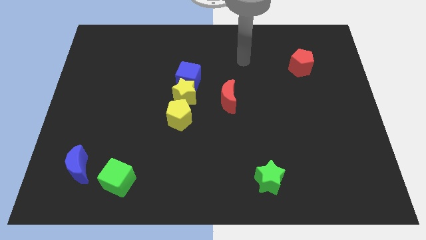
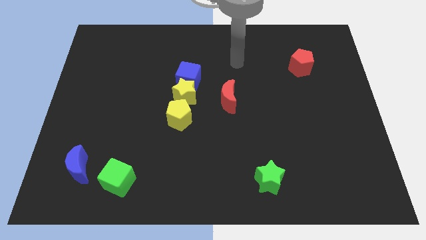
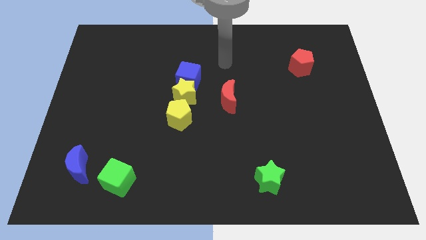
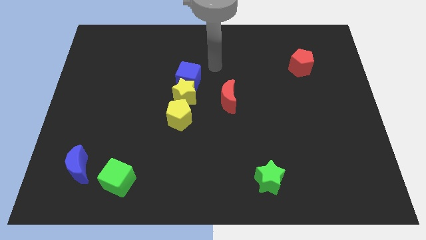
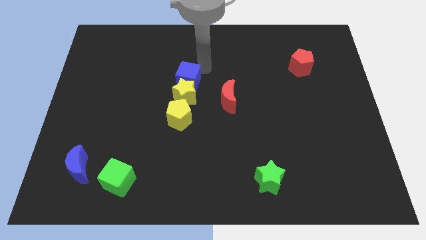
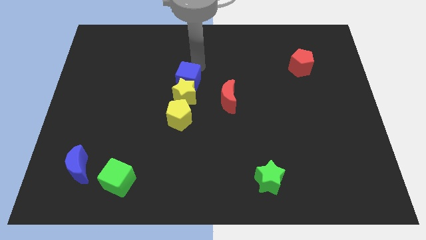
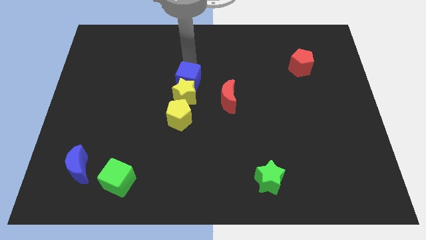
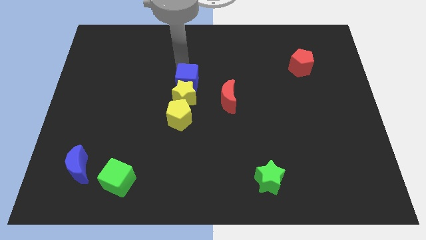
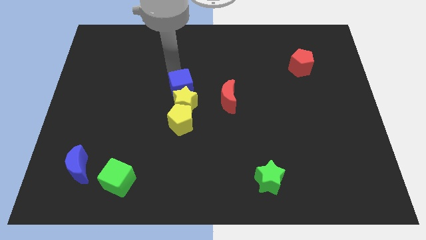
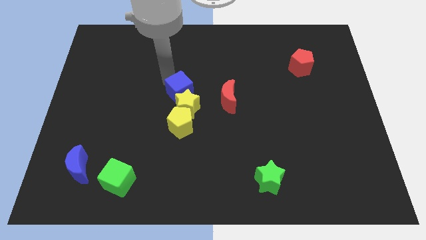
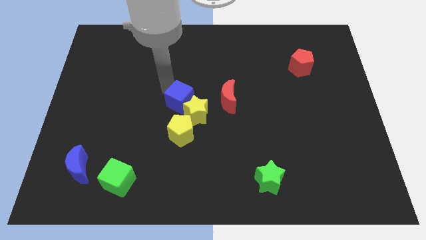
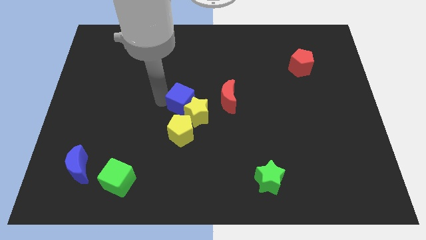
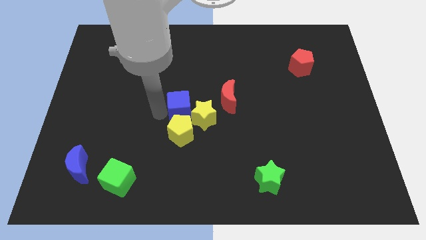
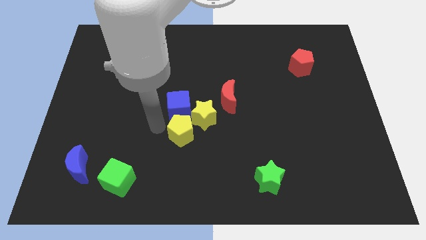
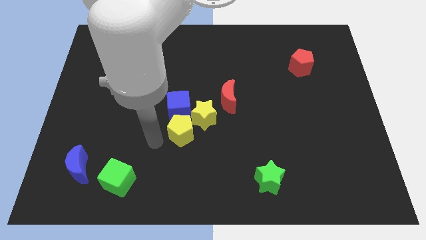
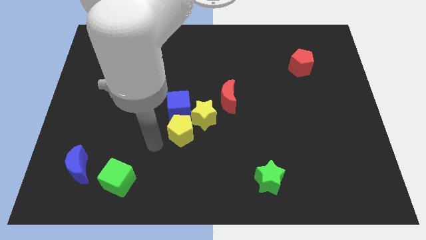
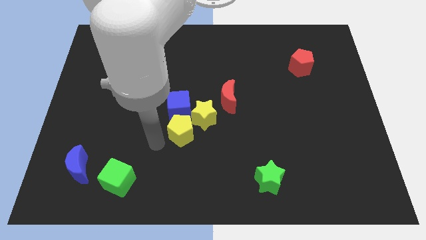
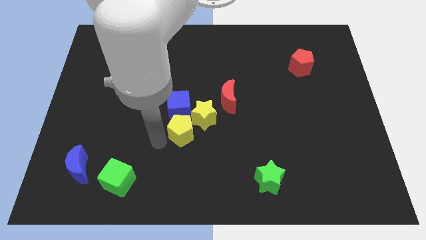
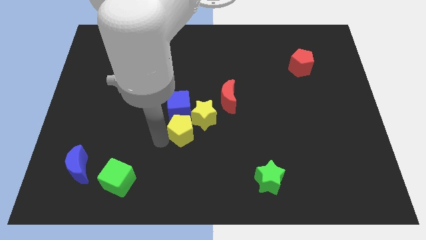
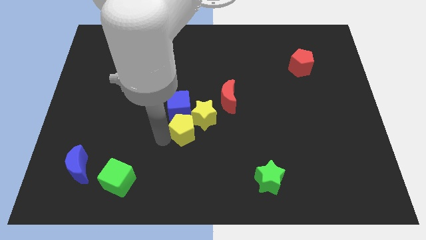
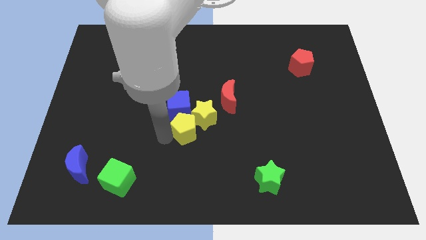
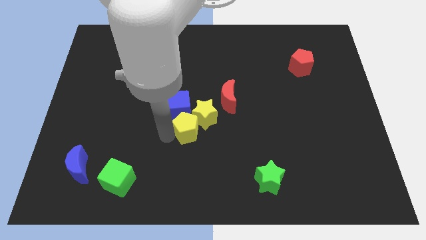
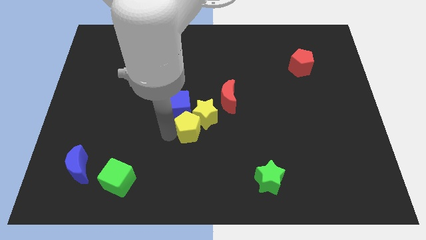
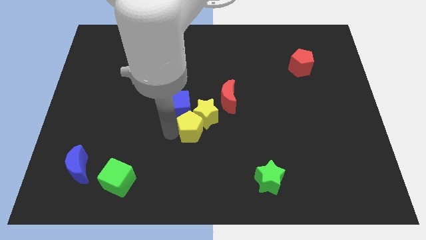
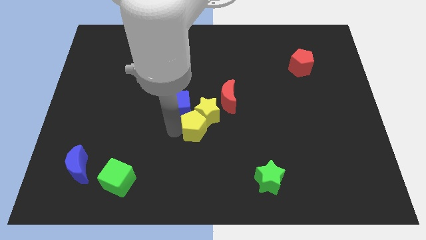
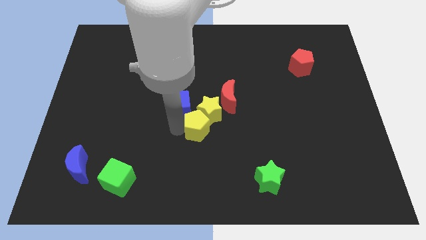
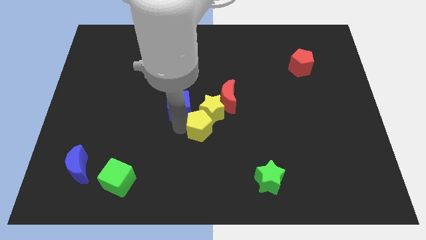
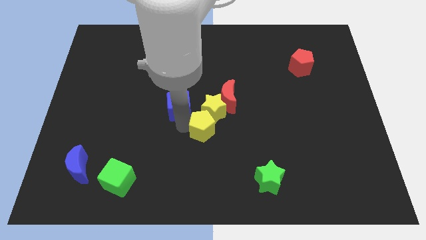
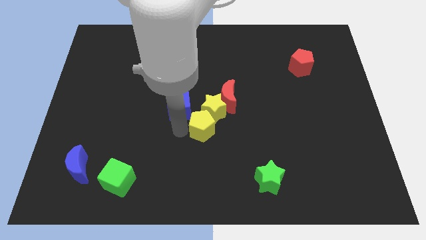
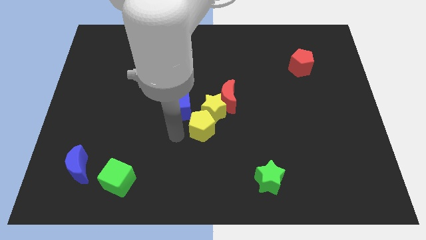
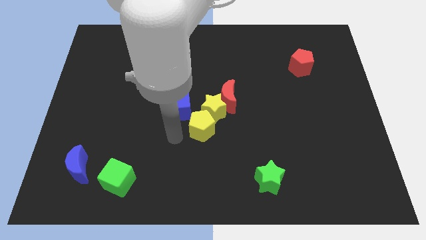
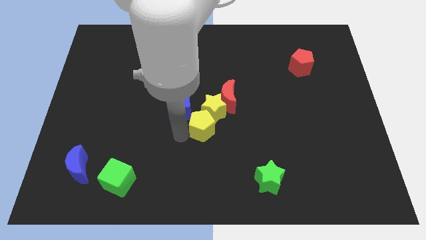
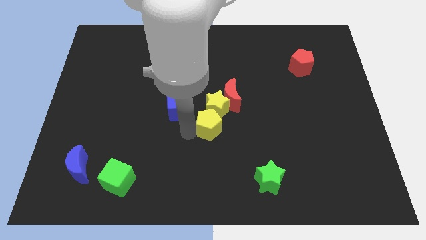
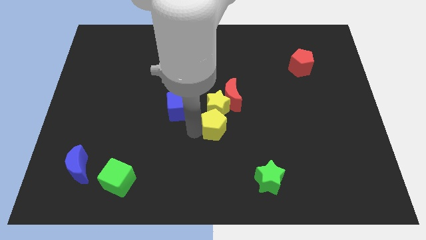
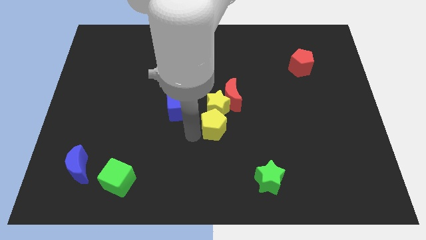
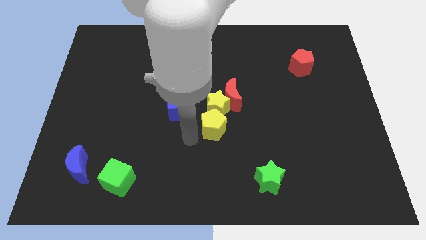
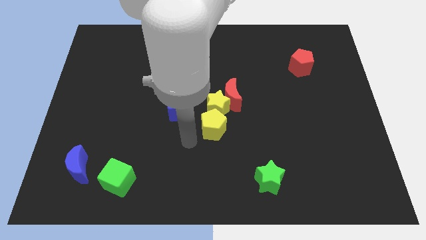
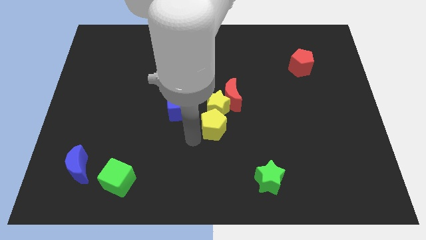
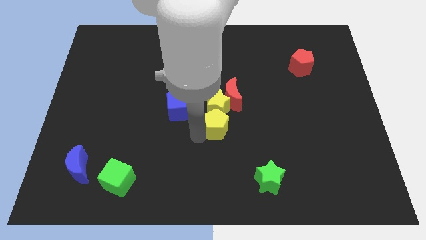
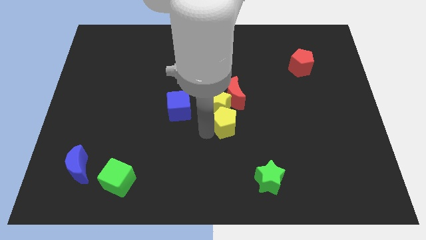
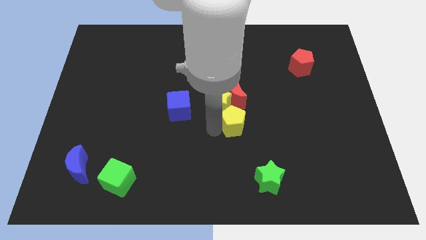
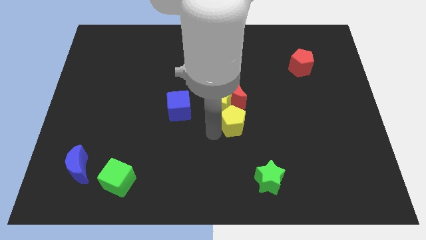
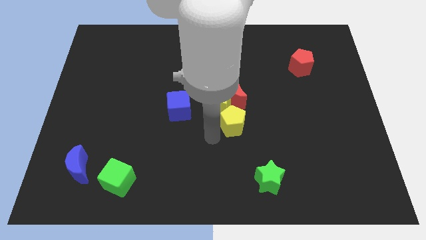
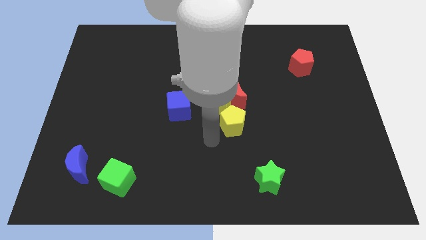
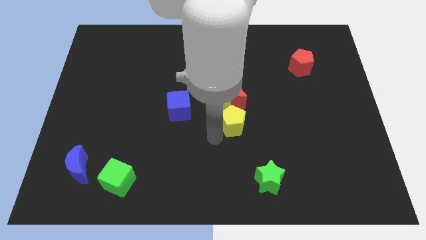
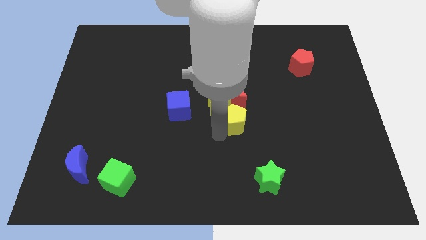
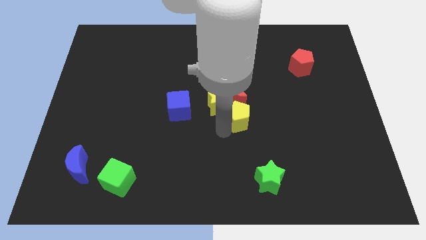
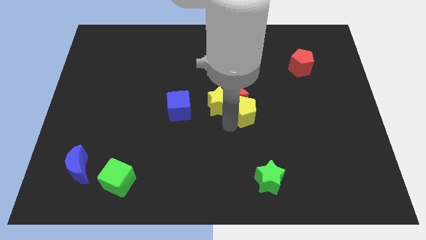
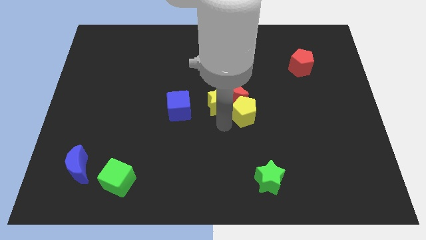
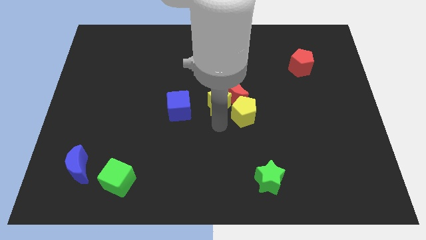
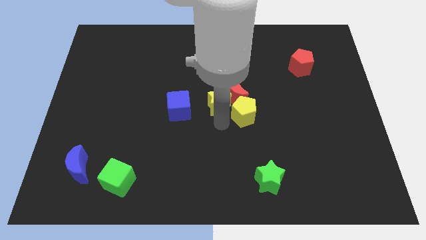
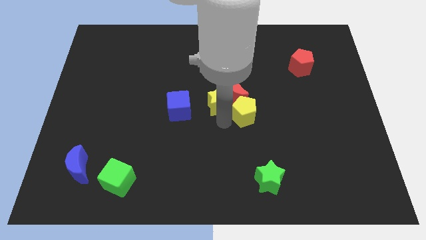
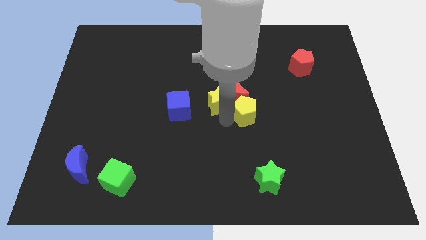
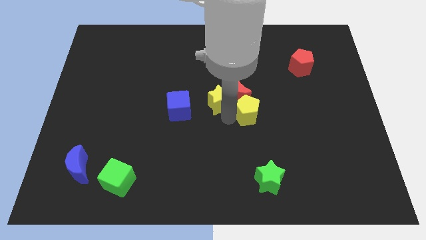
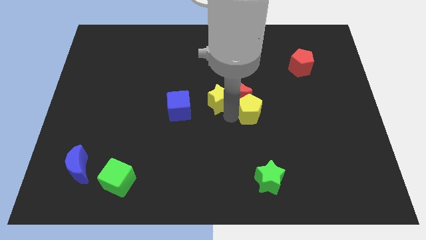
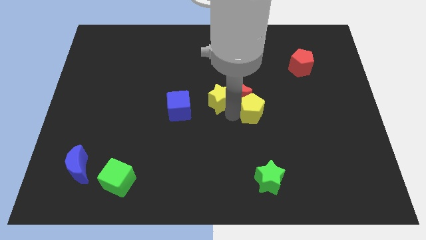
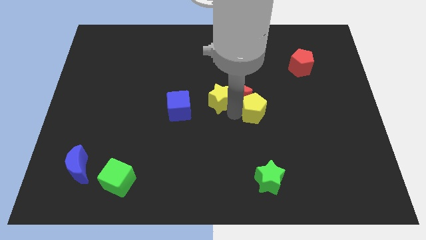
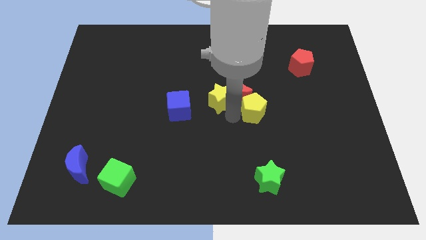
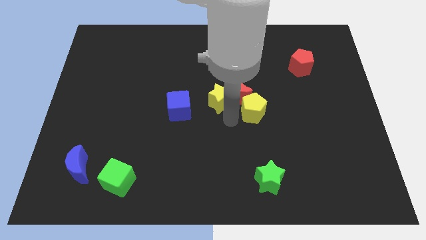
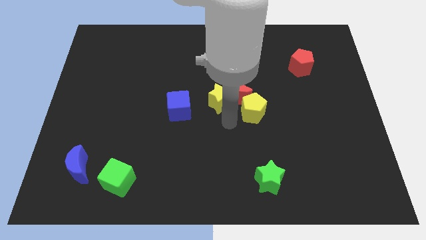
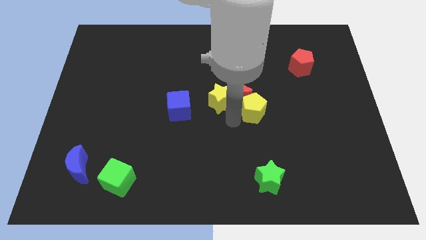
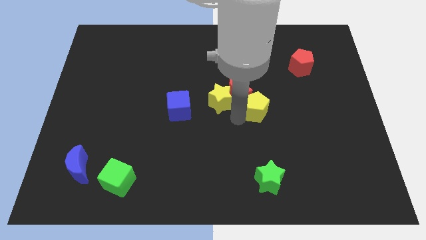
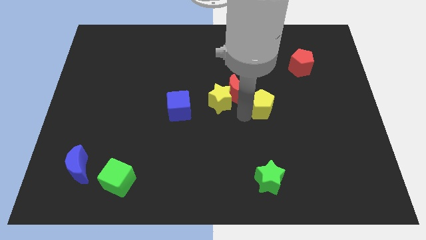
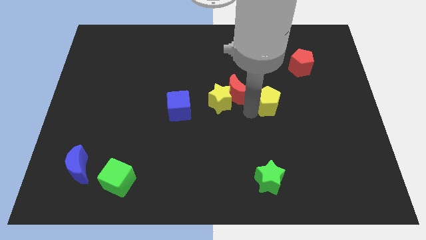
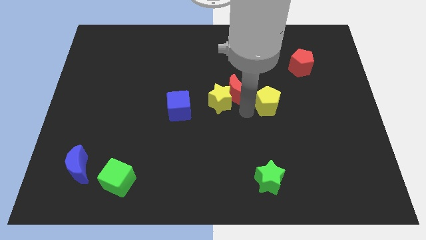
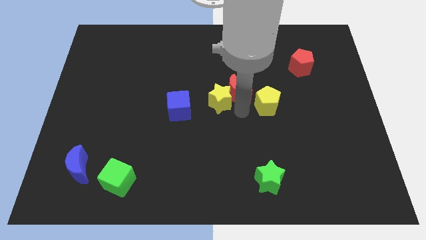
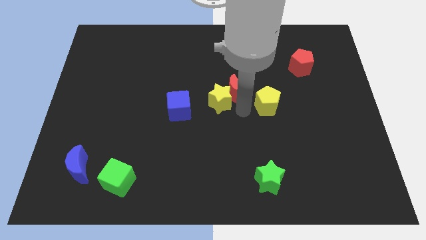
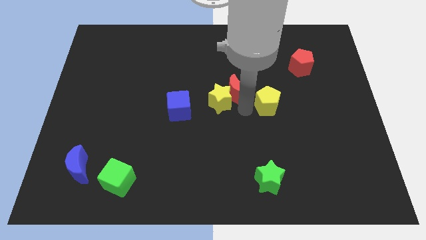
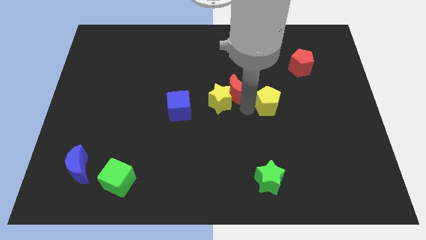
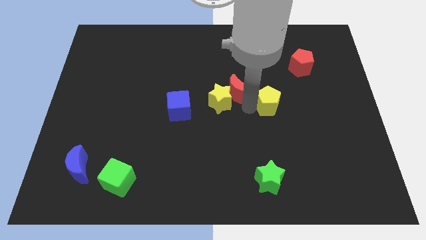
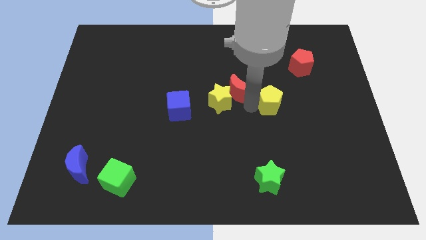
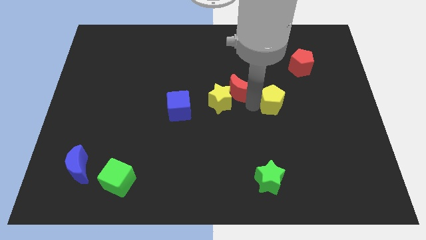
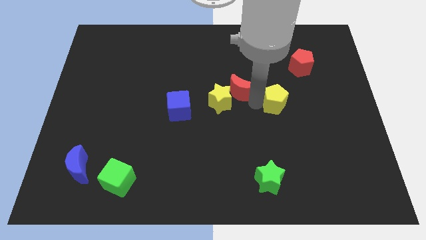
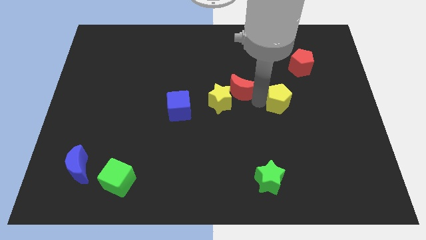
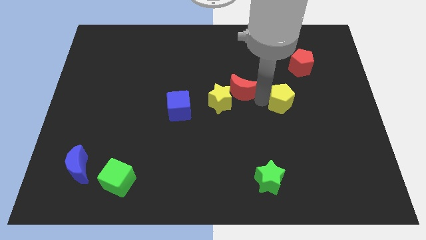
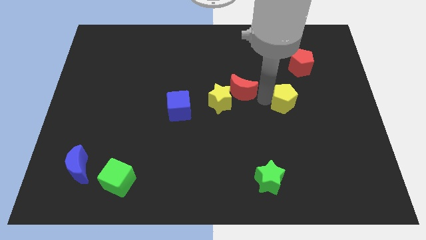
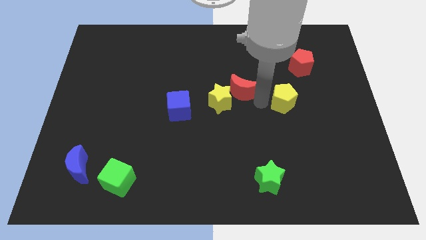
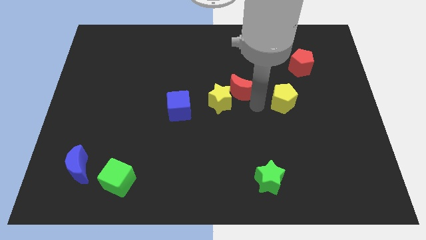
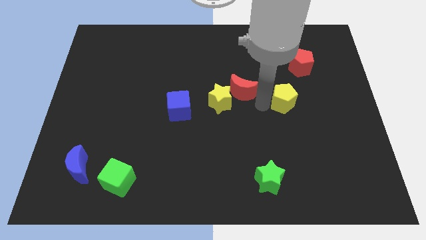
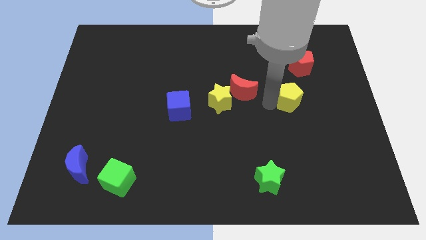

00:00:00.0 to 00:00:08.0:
put the yellow pentagon below the red pentagon
